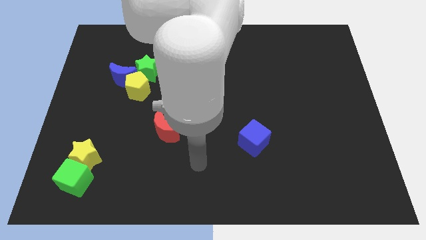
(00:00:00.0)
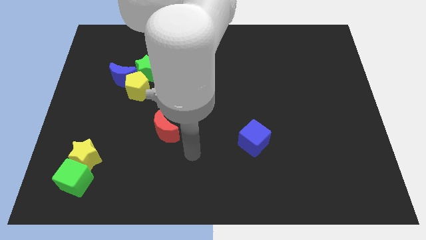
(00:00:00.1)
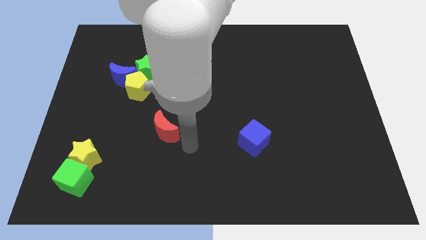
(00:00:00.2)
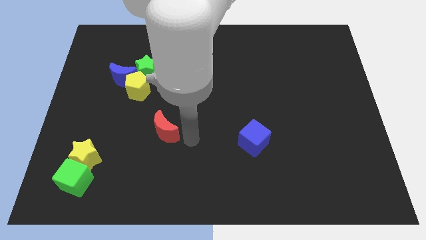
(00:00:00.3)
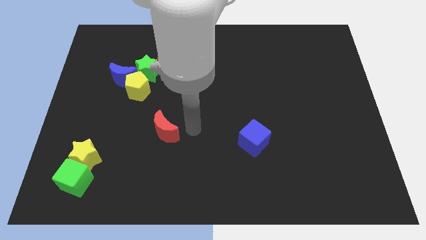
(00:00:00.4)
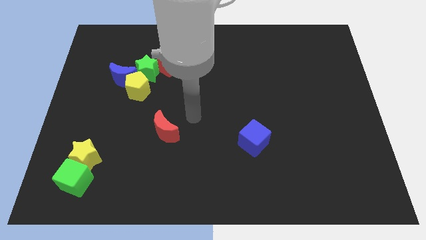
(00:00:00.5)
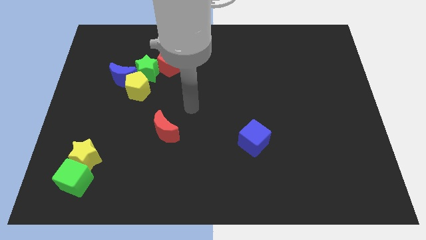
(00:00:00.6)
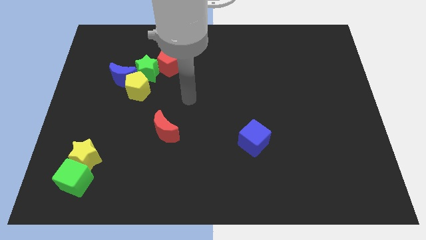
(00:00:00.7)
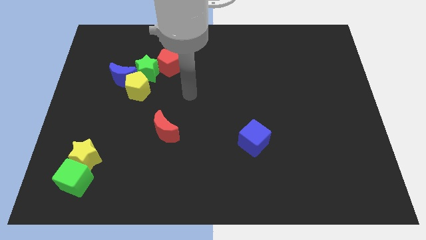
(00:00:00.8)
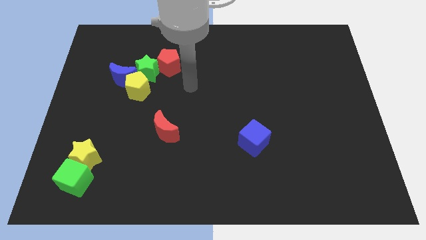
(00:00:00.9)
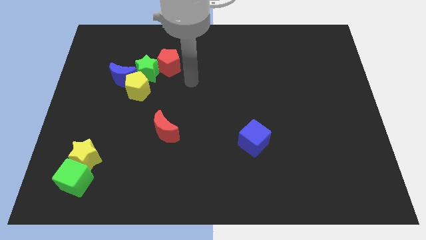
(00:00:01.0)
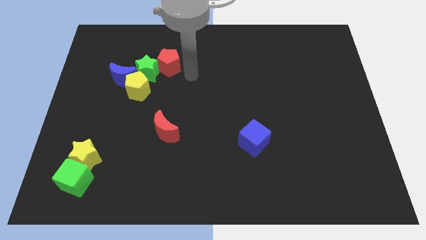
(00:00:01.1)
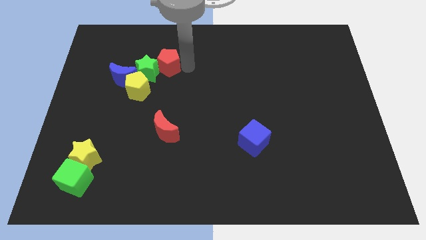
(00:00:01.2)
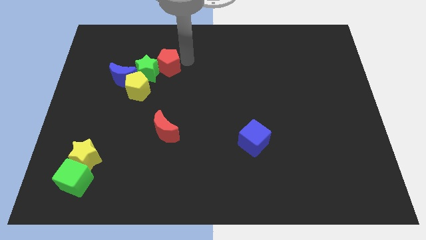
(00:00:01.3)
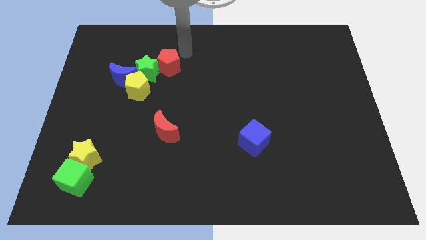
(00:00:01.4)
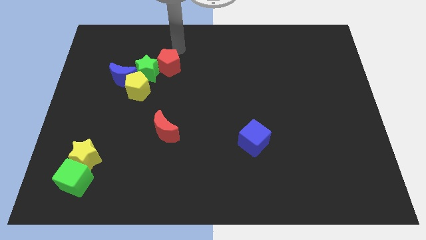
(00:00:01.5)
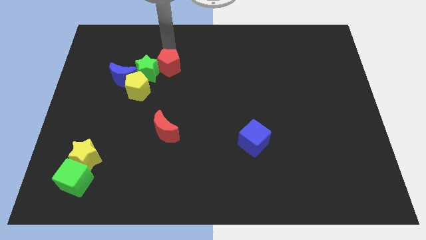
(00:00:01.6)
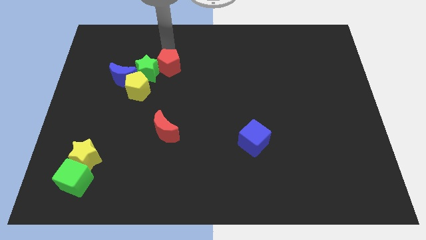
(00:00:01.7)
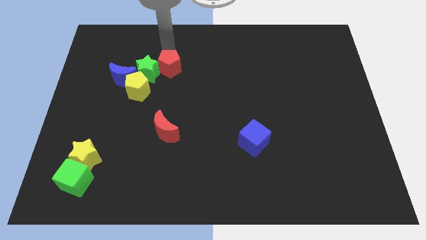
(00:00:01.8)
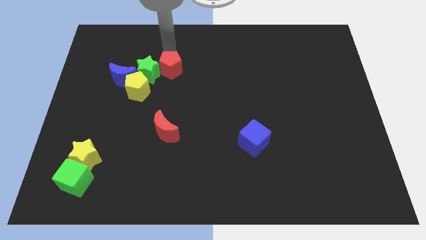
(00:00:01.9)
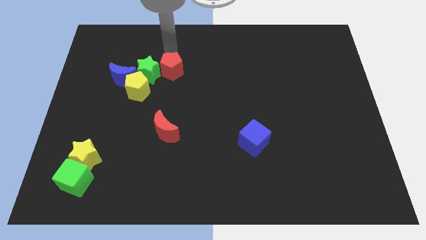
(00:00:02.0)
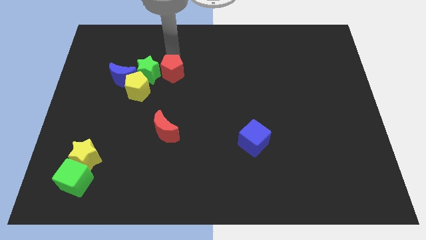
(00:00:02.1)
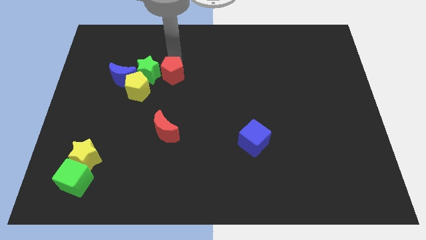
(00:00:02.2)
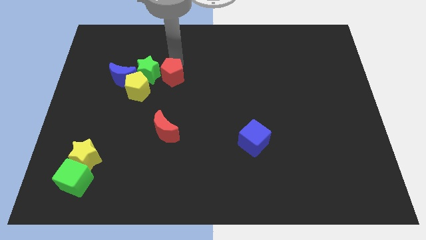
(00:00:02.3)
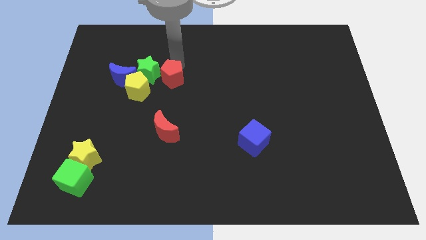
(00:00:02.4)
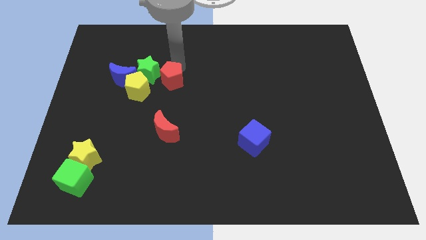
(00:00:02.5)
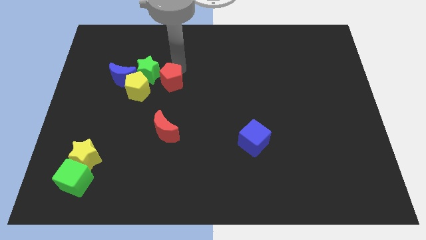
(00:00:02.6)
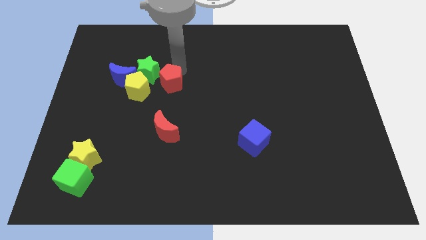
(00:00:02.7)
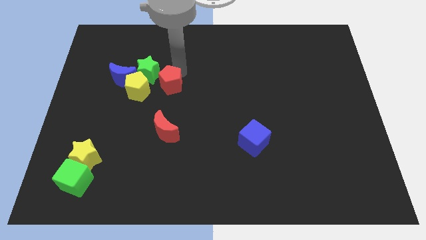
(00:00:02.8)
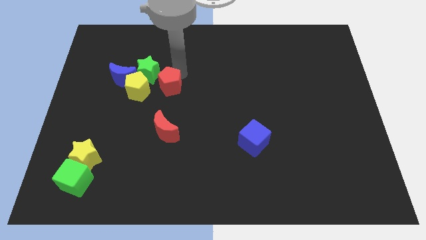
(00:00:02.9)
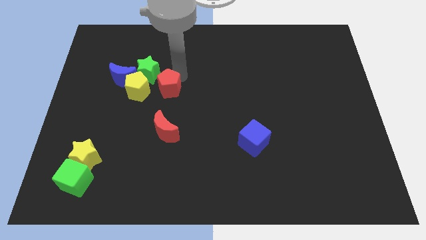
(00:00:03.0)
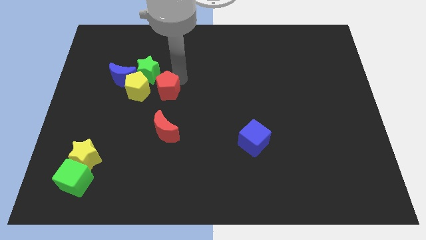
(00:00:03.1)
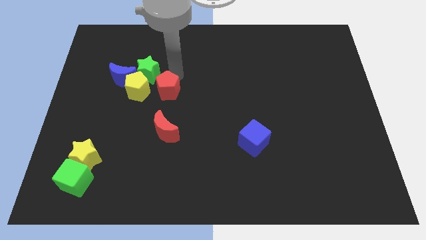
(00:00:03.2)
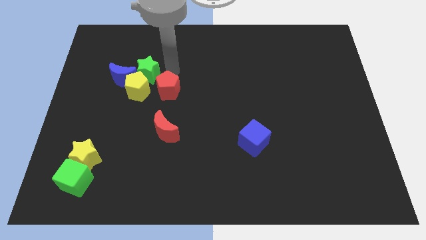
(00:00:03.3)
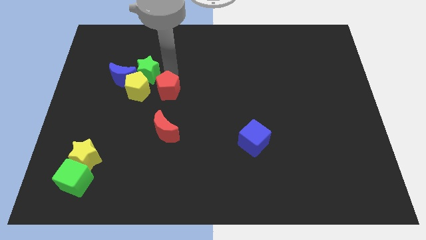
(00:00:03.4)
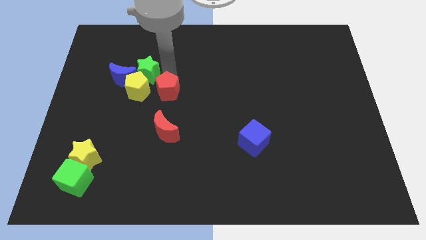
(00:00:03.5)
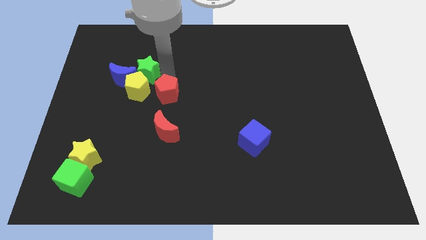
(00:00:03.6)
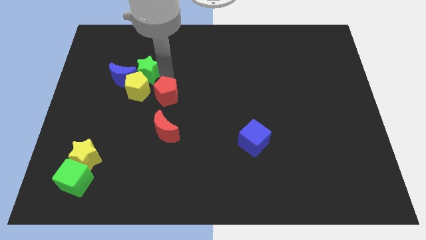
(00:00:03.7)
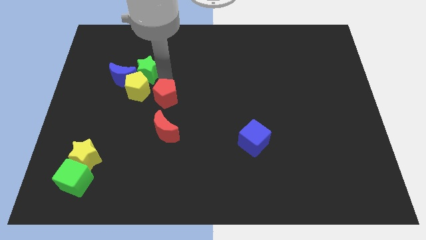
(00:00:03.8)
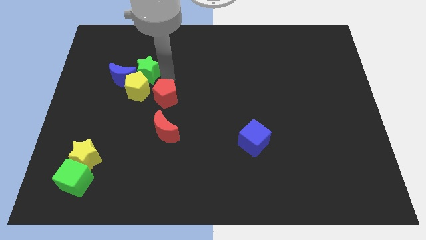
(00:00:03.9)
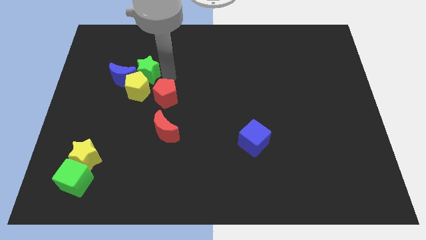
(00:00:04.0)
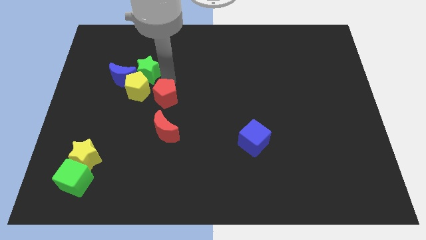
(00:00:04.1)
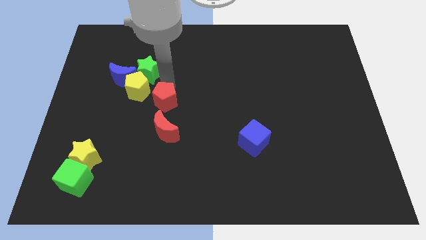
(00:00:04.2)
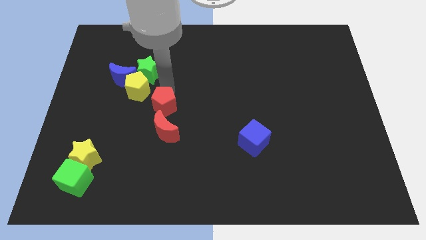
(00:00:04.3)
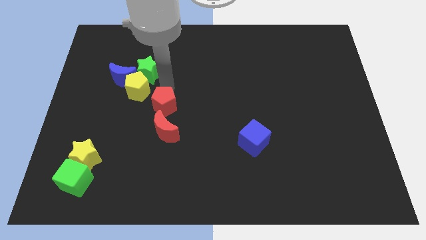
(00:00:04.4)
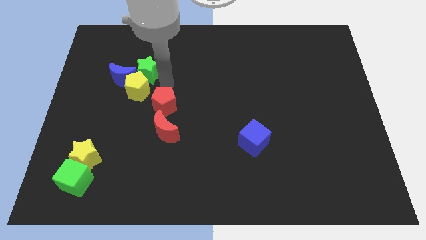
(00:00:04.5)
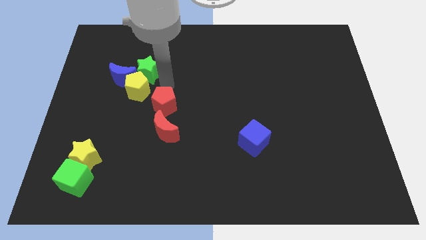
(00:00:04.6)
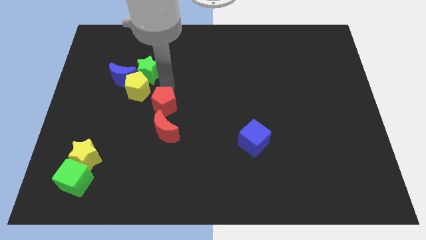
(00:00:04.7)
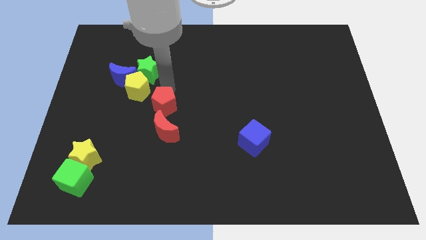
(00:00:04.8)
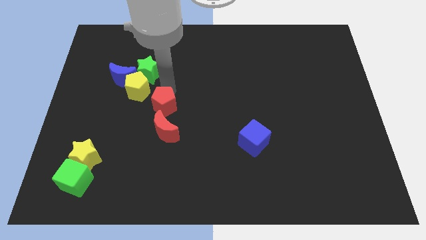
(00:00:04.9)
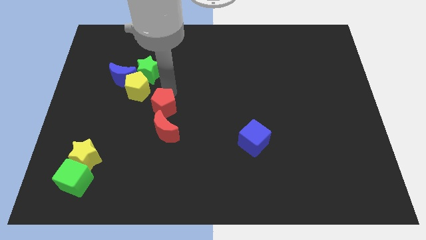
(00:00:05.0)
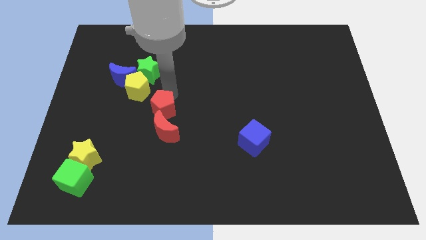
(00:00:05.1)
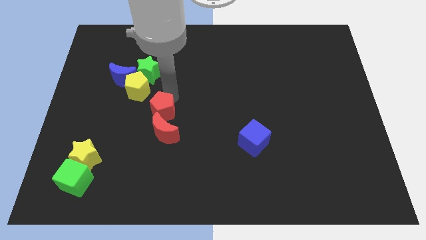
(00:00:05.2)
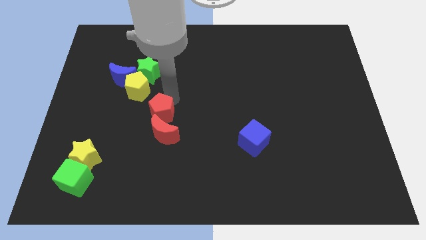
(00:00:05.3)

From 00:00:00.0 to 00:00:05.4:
slide the red pentagon to the red moon

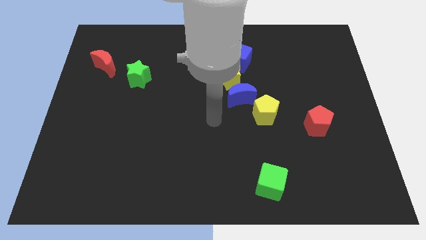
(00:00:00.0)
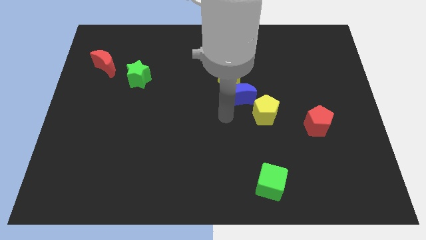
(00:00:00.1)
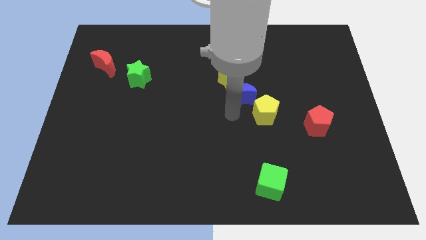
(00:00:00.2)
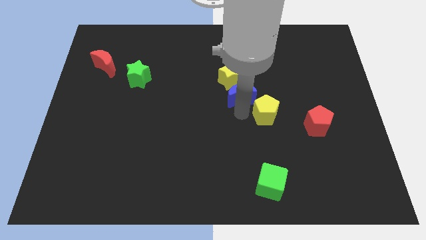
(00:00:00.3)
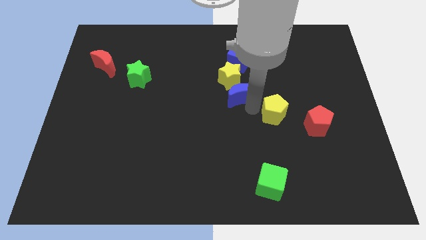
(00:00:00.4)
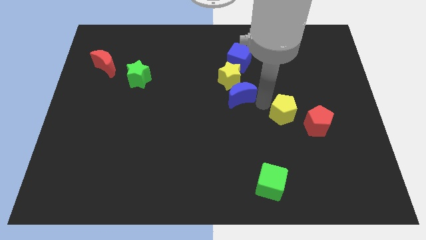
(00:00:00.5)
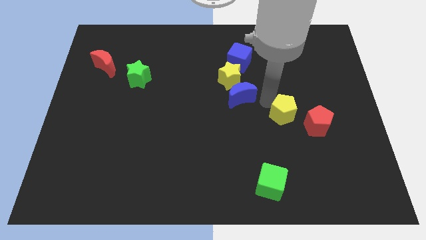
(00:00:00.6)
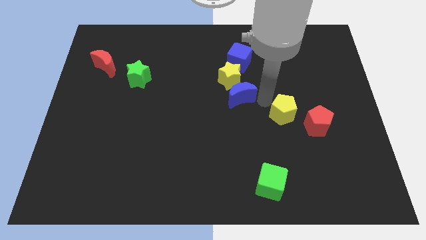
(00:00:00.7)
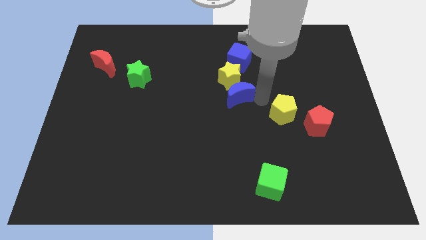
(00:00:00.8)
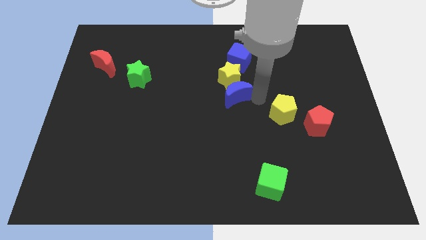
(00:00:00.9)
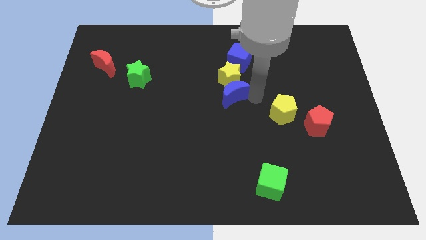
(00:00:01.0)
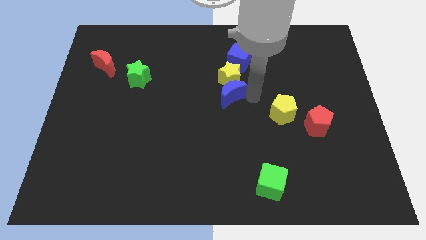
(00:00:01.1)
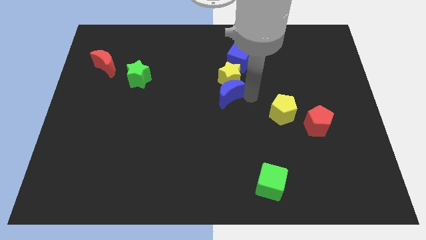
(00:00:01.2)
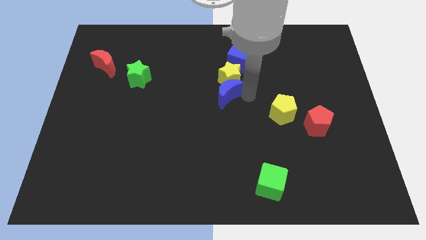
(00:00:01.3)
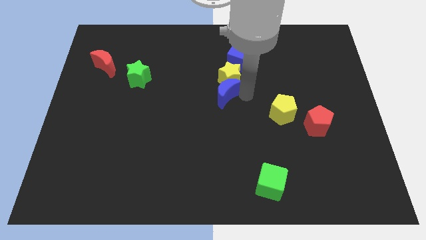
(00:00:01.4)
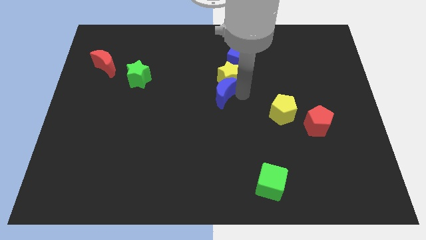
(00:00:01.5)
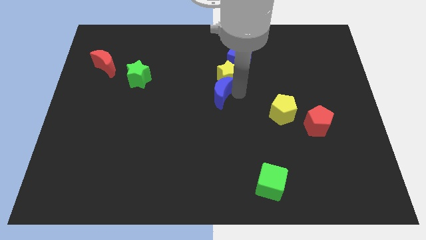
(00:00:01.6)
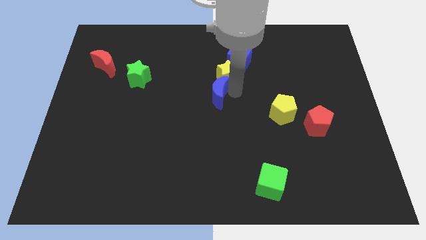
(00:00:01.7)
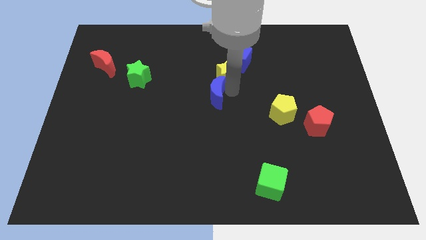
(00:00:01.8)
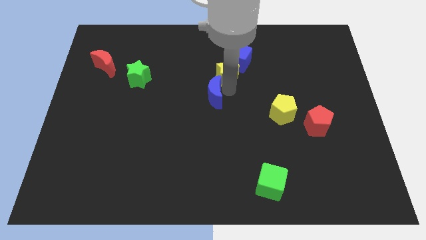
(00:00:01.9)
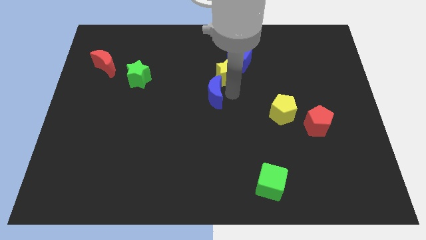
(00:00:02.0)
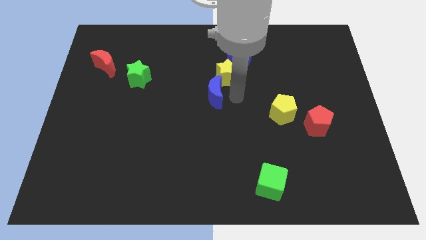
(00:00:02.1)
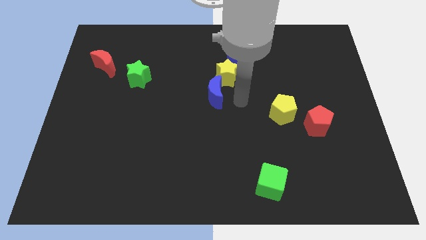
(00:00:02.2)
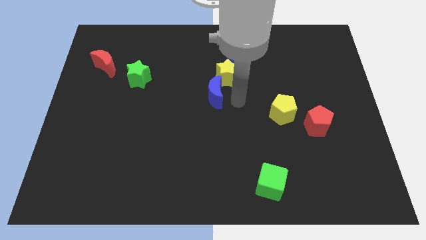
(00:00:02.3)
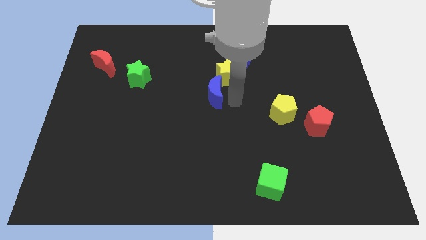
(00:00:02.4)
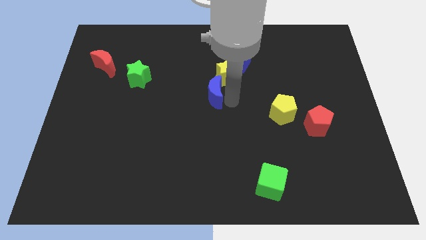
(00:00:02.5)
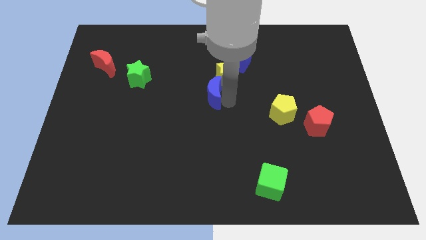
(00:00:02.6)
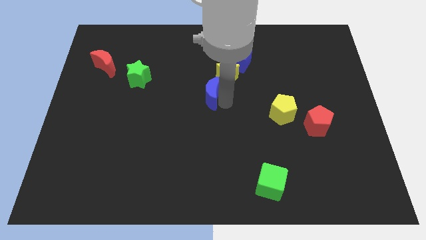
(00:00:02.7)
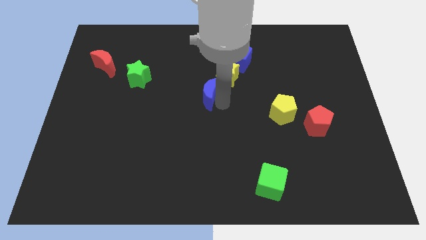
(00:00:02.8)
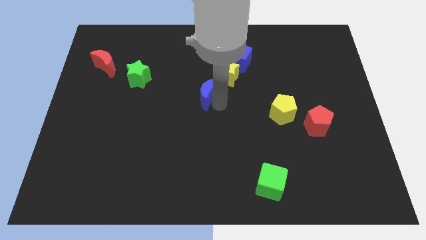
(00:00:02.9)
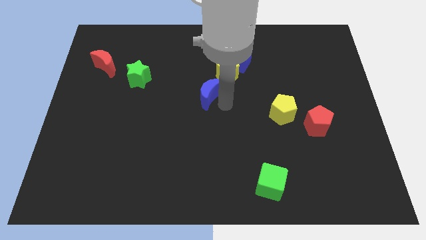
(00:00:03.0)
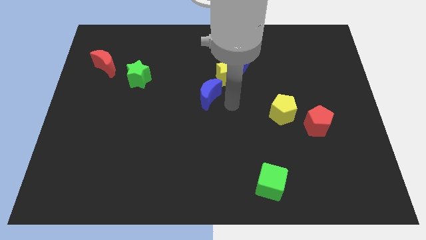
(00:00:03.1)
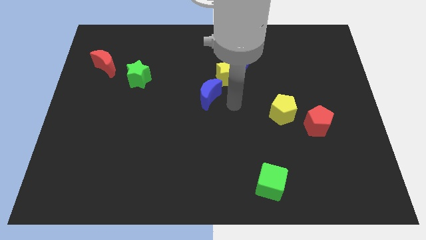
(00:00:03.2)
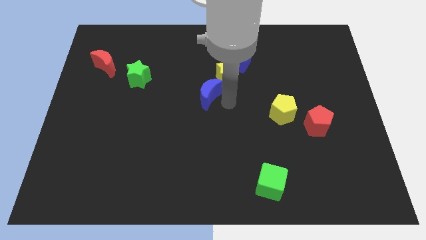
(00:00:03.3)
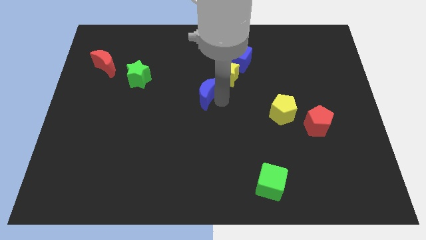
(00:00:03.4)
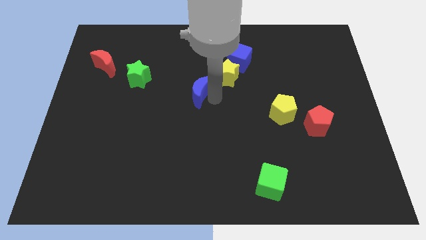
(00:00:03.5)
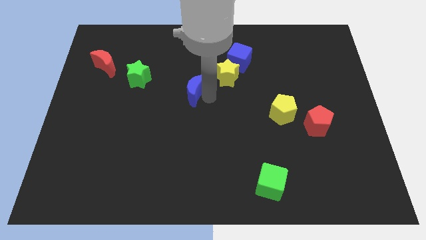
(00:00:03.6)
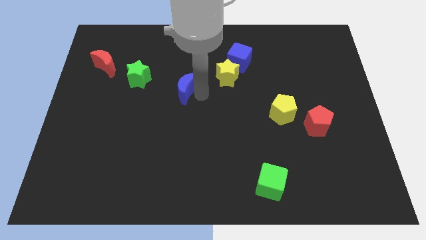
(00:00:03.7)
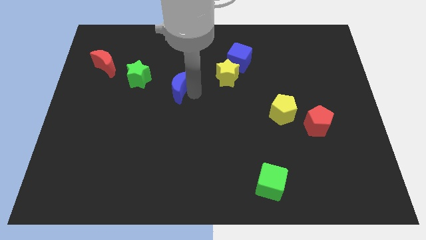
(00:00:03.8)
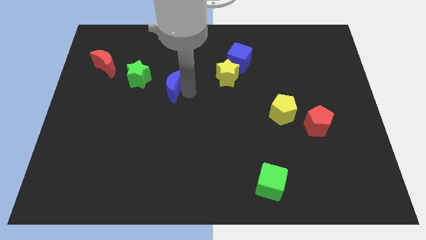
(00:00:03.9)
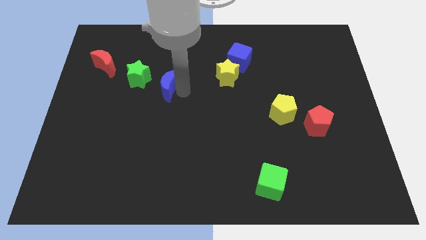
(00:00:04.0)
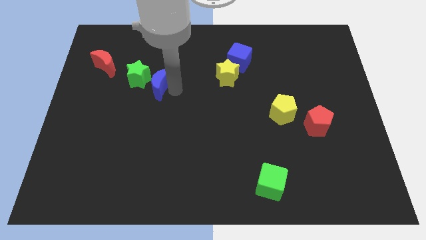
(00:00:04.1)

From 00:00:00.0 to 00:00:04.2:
move the blue moon towards the green star
